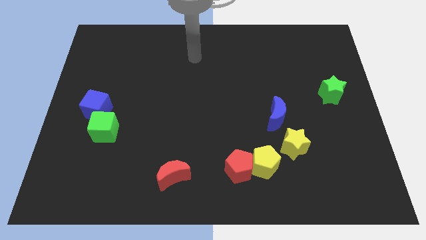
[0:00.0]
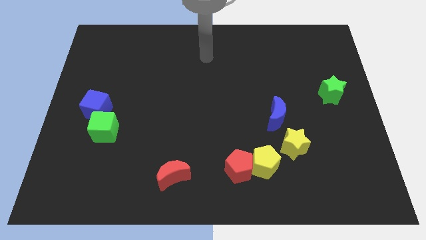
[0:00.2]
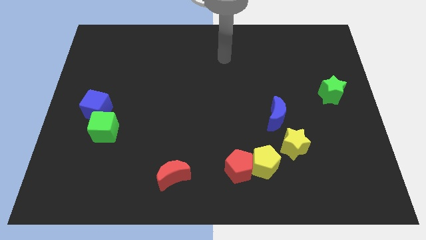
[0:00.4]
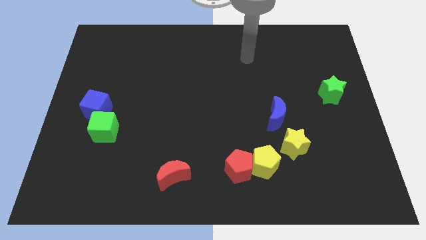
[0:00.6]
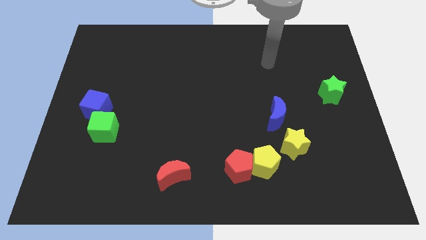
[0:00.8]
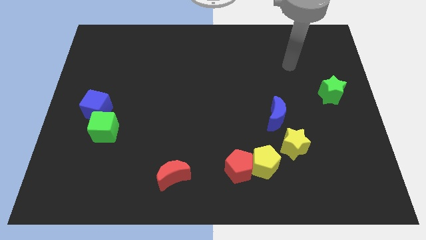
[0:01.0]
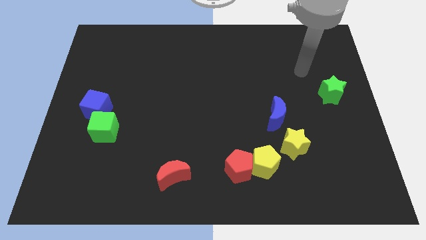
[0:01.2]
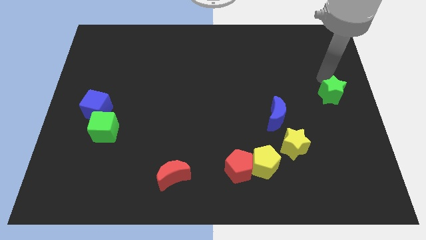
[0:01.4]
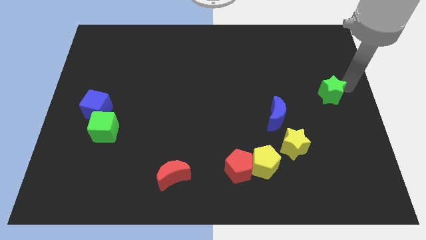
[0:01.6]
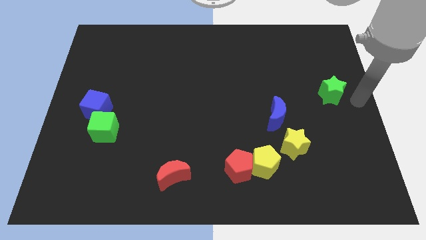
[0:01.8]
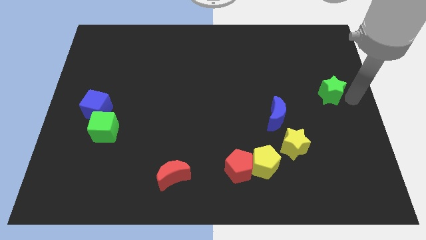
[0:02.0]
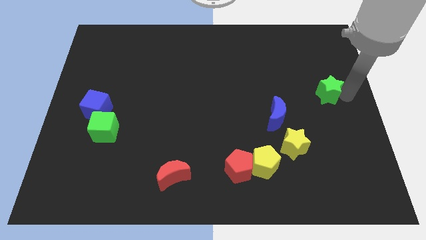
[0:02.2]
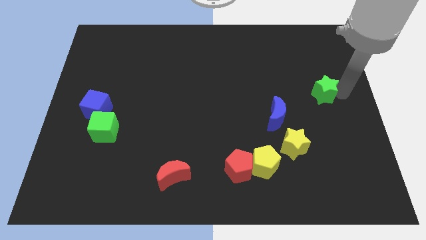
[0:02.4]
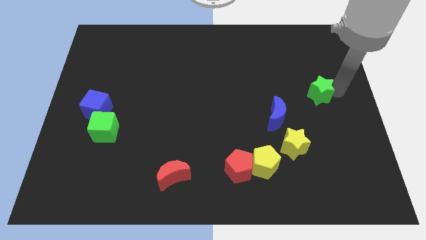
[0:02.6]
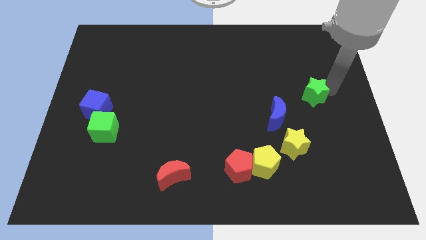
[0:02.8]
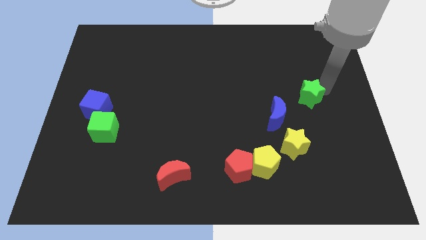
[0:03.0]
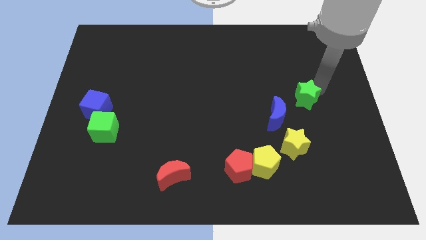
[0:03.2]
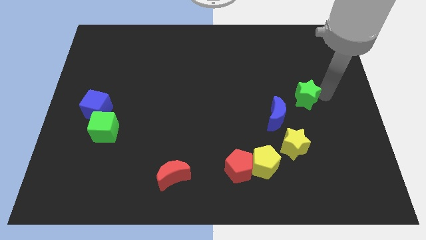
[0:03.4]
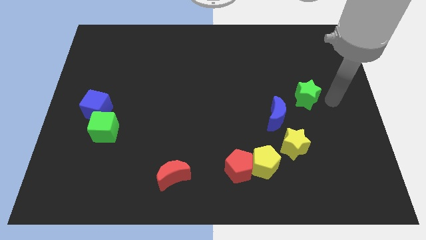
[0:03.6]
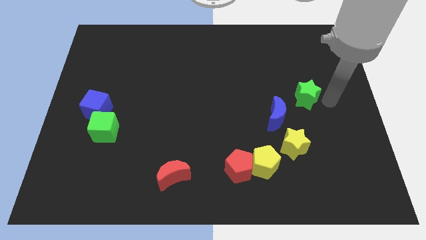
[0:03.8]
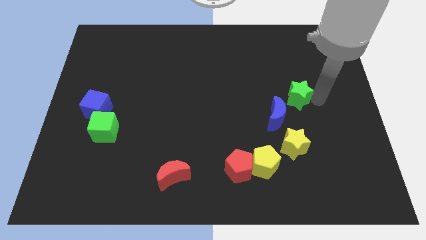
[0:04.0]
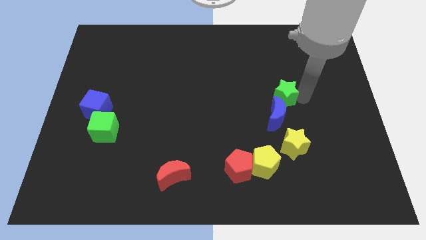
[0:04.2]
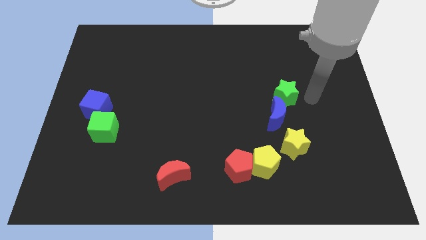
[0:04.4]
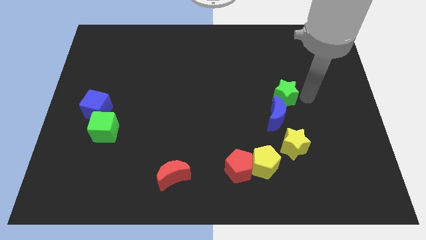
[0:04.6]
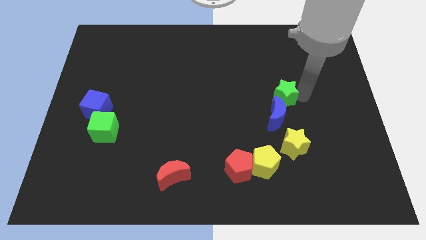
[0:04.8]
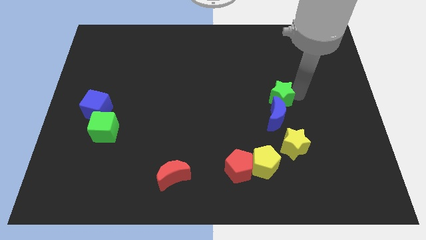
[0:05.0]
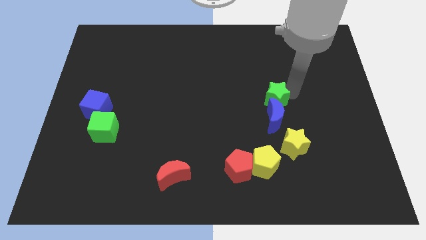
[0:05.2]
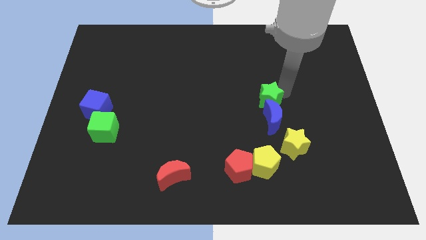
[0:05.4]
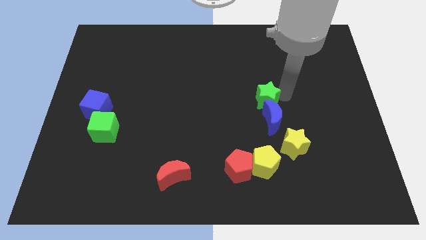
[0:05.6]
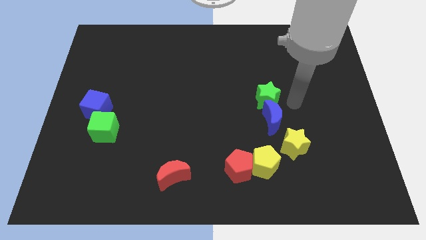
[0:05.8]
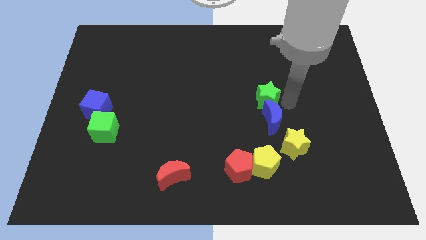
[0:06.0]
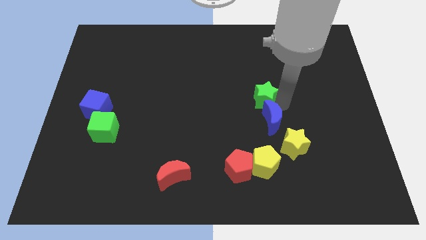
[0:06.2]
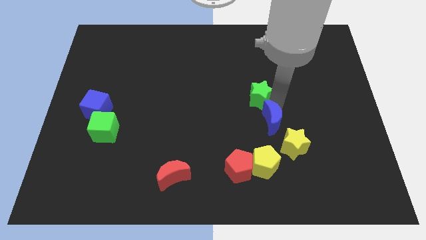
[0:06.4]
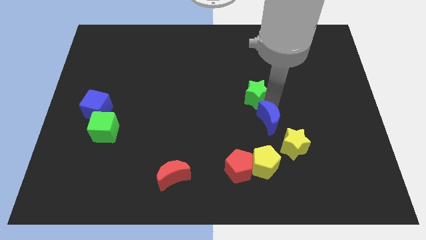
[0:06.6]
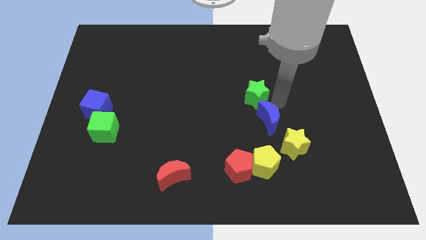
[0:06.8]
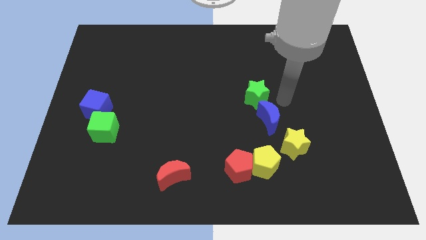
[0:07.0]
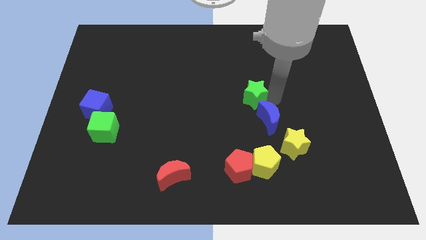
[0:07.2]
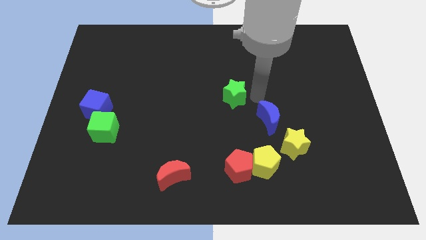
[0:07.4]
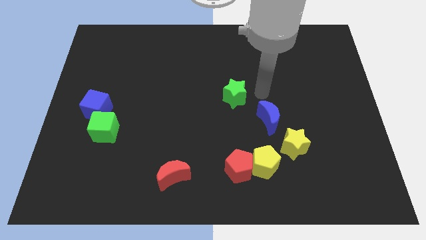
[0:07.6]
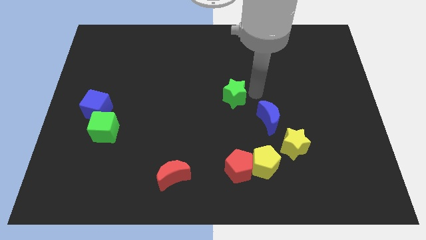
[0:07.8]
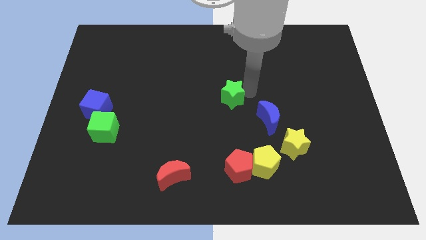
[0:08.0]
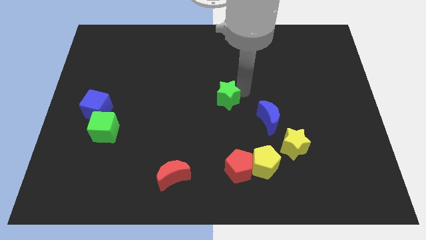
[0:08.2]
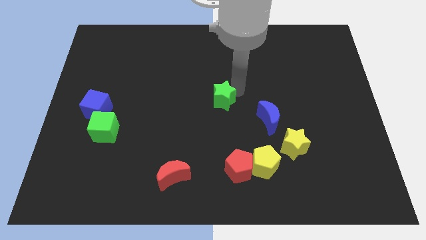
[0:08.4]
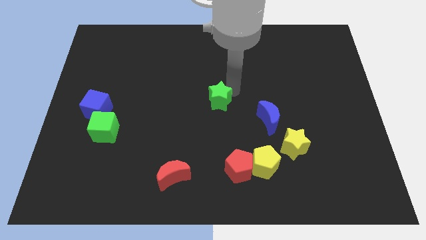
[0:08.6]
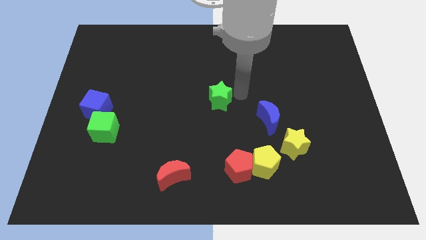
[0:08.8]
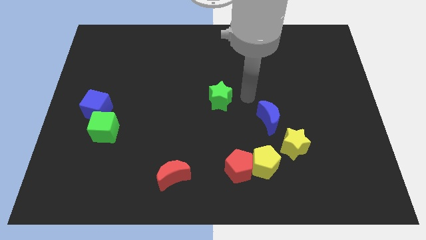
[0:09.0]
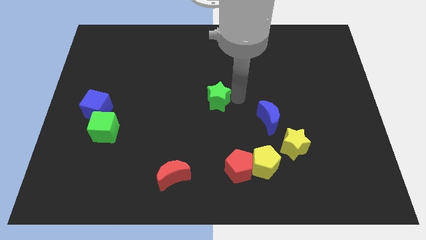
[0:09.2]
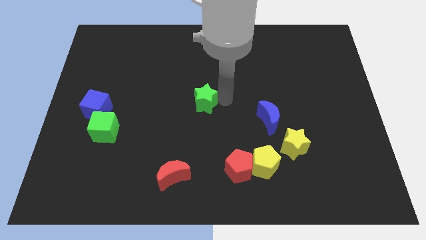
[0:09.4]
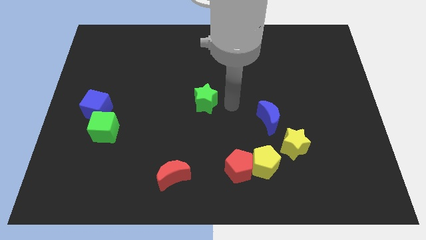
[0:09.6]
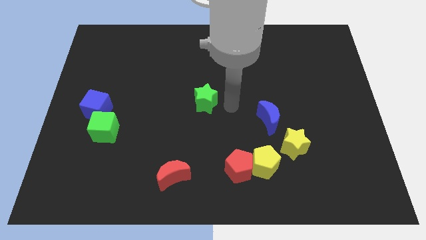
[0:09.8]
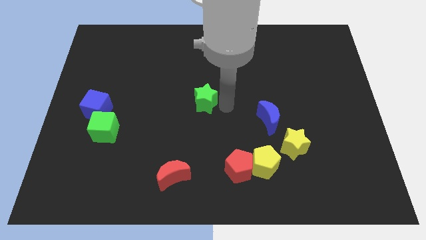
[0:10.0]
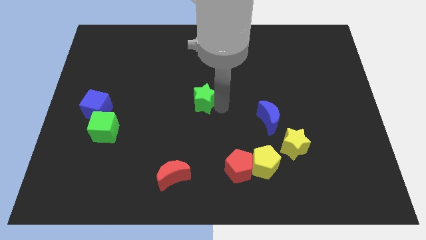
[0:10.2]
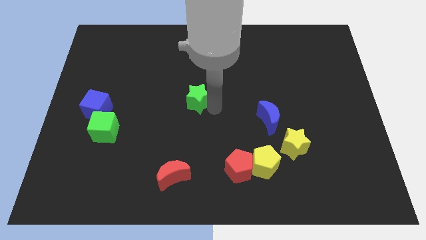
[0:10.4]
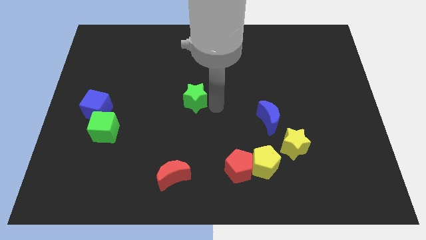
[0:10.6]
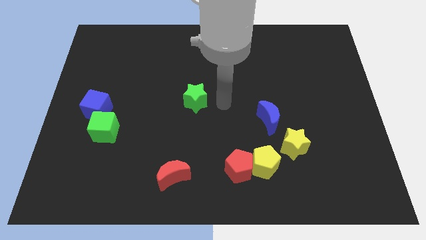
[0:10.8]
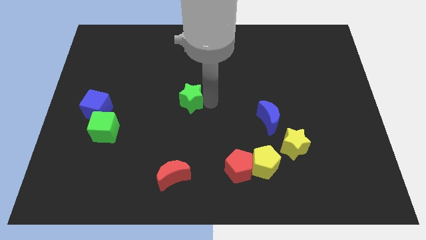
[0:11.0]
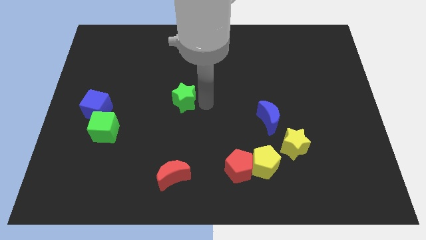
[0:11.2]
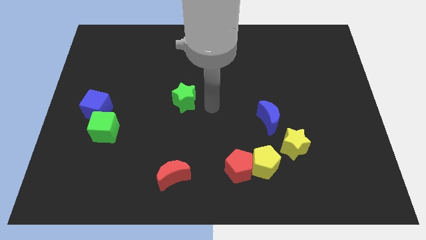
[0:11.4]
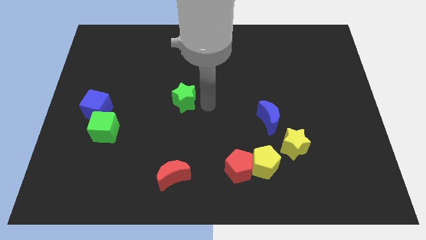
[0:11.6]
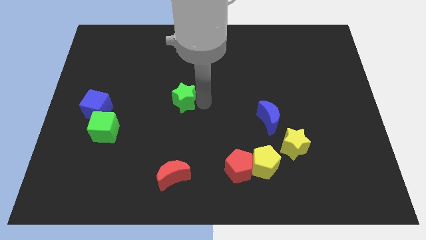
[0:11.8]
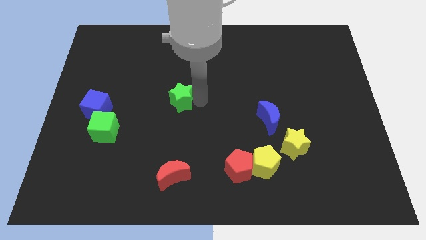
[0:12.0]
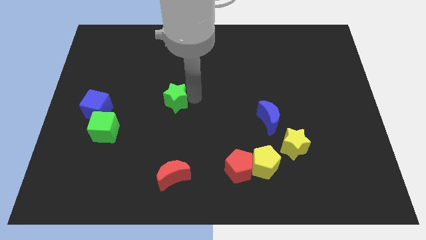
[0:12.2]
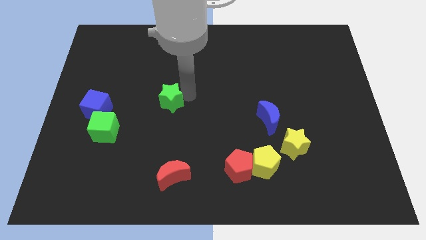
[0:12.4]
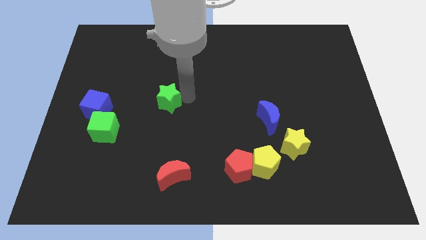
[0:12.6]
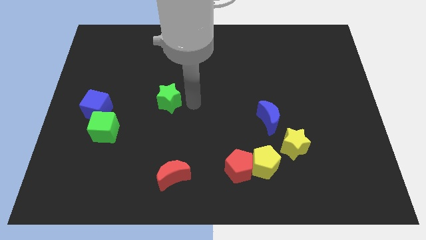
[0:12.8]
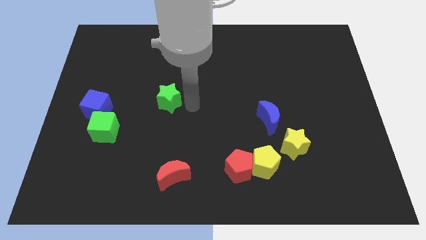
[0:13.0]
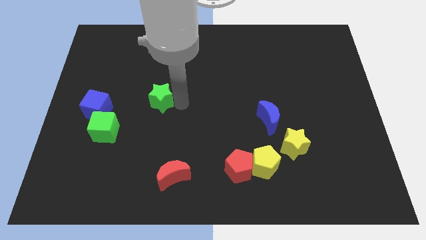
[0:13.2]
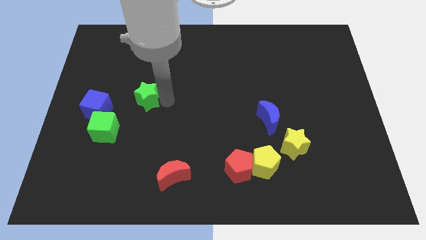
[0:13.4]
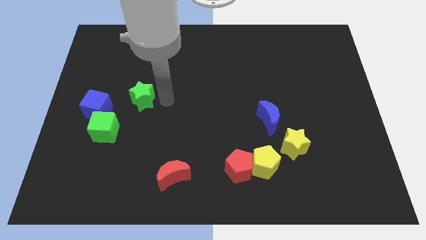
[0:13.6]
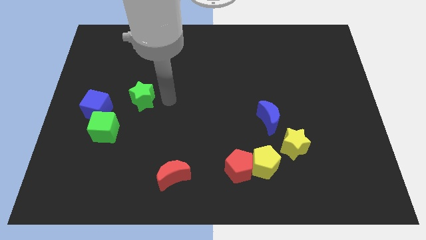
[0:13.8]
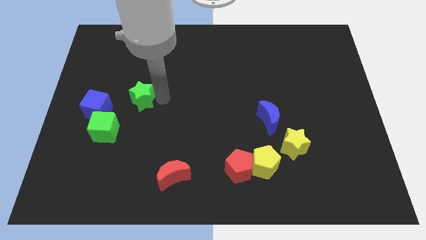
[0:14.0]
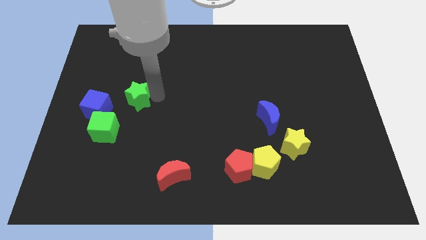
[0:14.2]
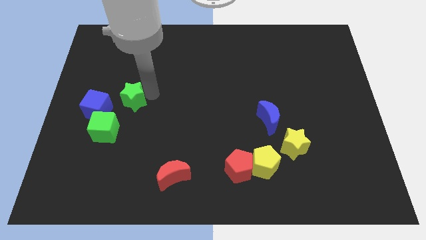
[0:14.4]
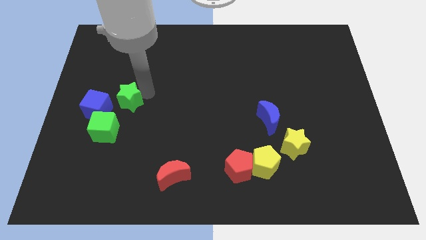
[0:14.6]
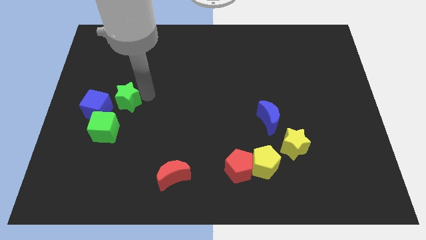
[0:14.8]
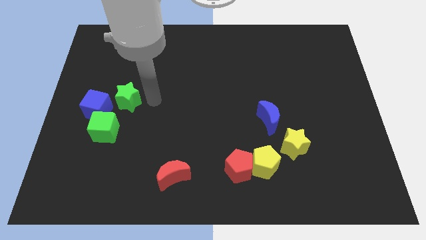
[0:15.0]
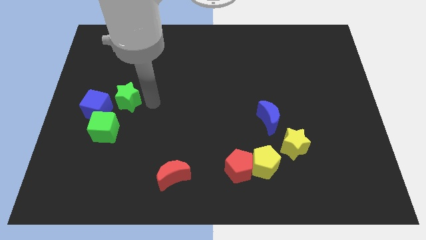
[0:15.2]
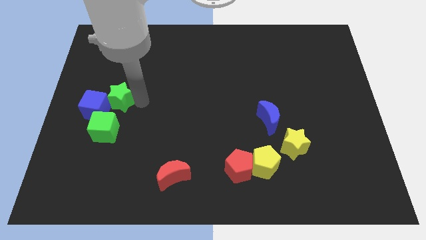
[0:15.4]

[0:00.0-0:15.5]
slide the green star close to the blue cube
